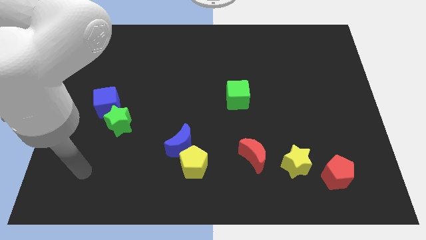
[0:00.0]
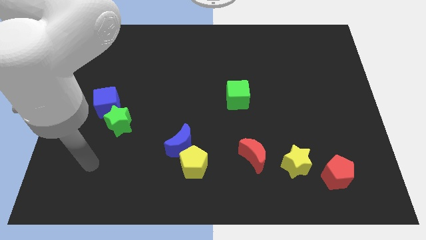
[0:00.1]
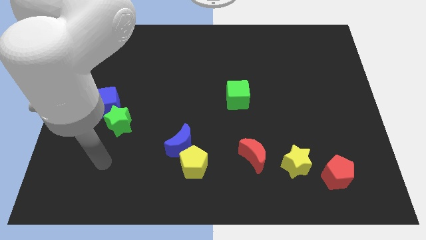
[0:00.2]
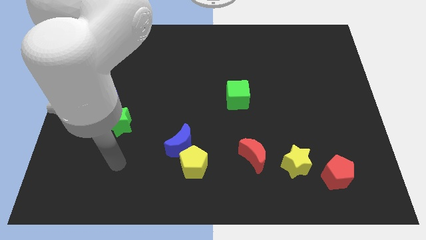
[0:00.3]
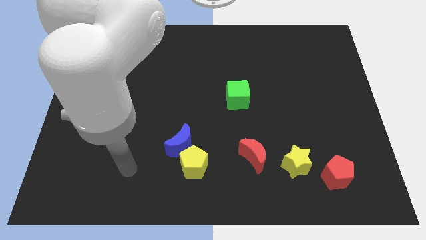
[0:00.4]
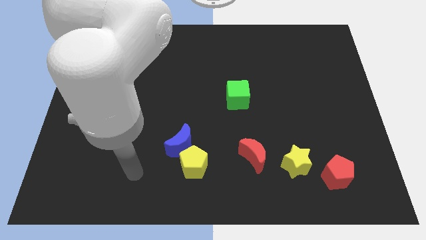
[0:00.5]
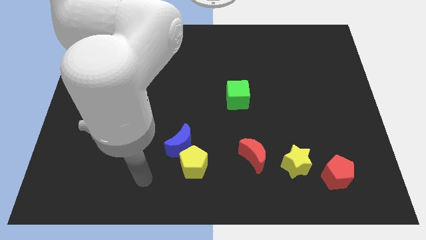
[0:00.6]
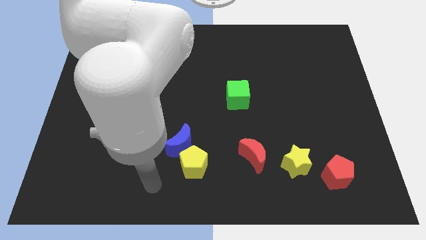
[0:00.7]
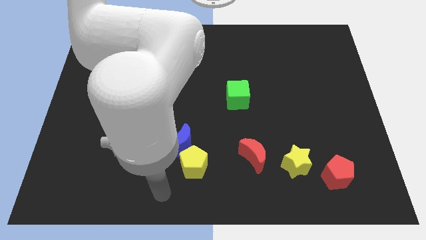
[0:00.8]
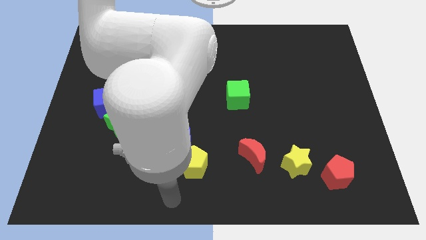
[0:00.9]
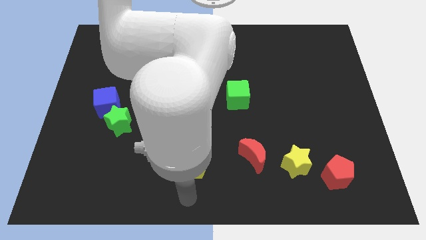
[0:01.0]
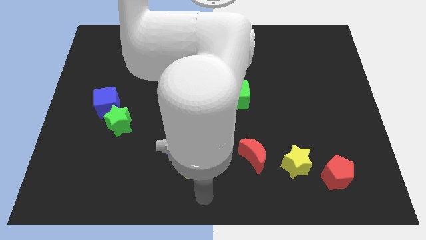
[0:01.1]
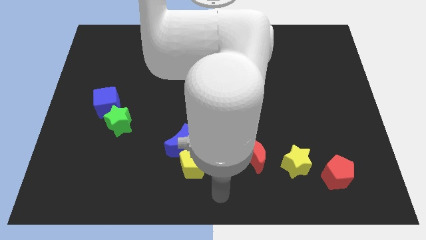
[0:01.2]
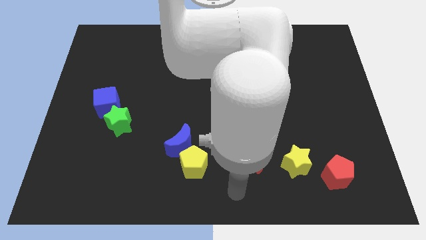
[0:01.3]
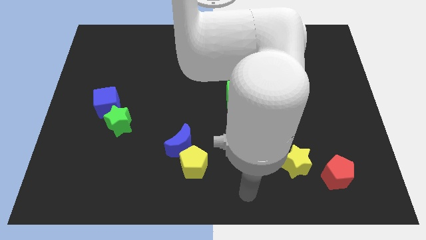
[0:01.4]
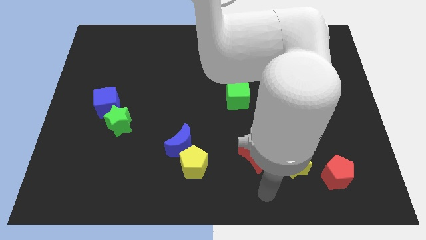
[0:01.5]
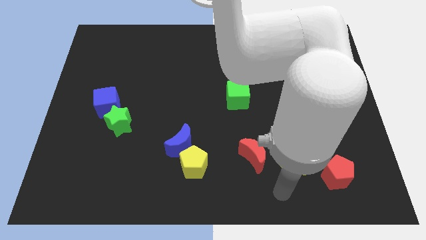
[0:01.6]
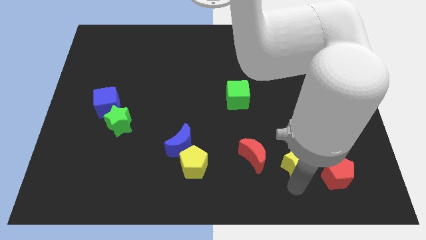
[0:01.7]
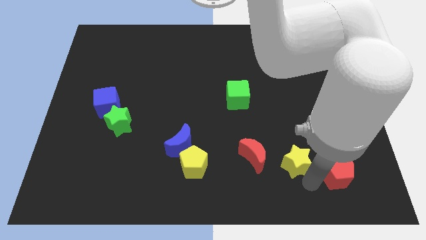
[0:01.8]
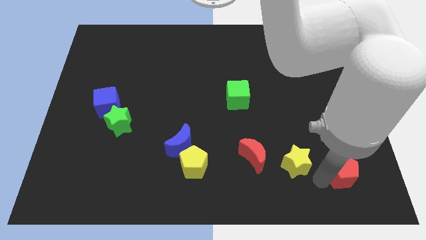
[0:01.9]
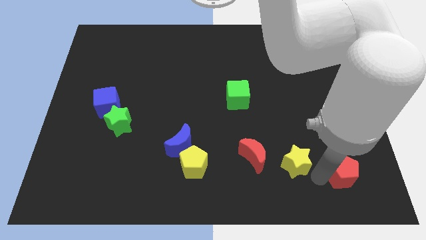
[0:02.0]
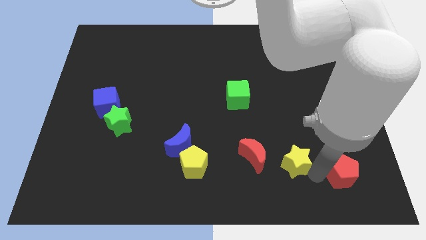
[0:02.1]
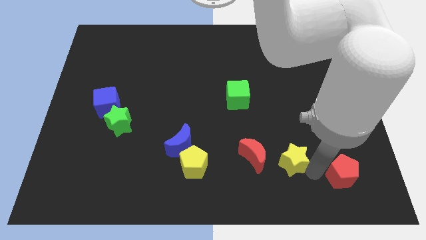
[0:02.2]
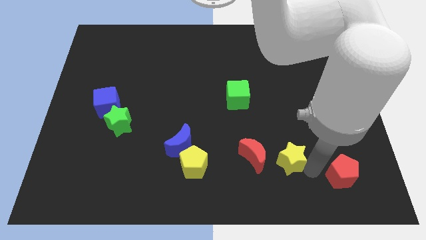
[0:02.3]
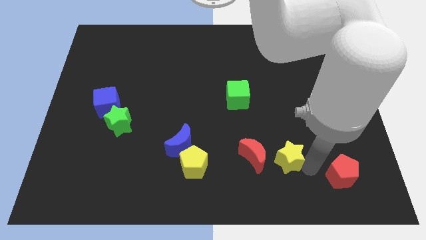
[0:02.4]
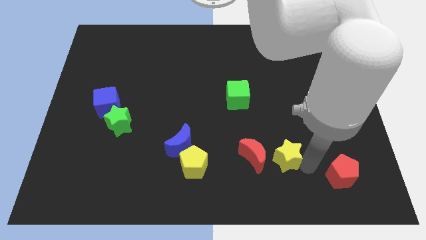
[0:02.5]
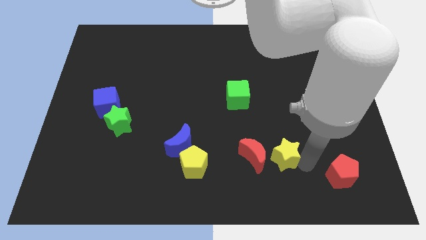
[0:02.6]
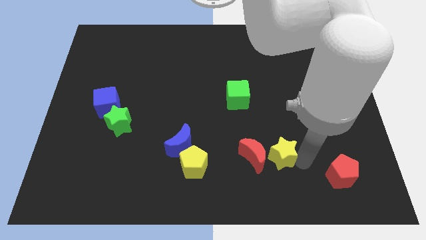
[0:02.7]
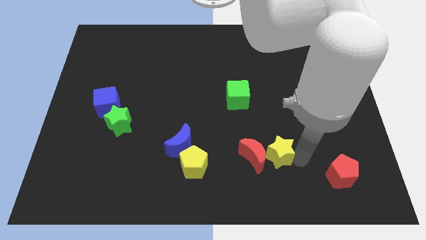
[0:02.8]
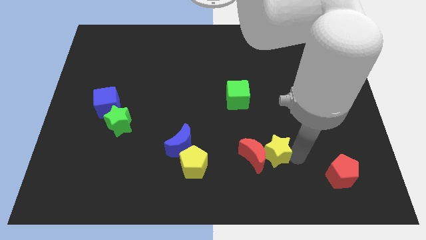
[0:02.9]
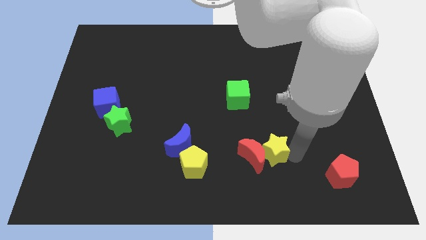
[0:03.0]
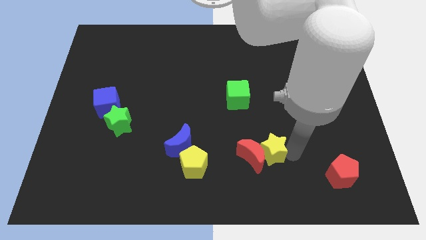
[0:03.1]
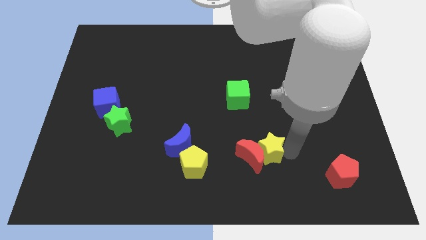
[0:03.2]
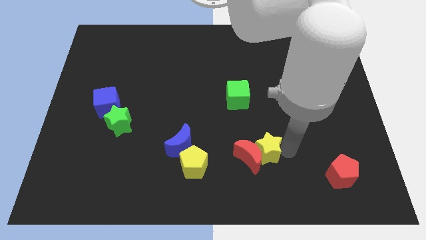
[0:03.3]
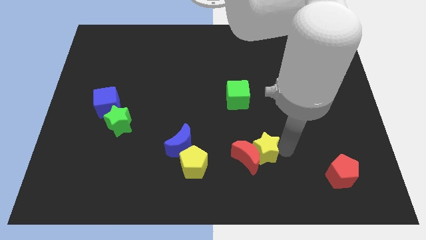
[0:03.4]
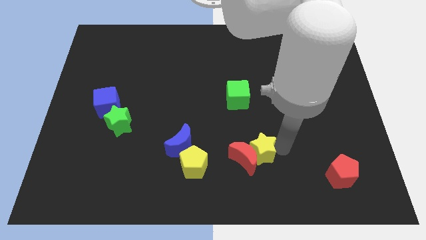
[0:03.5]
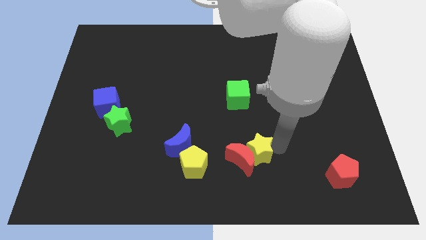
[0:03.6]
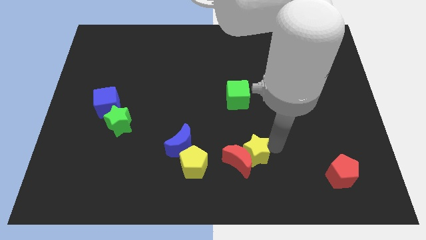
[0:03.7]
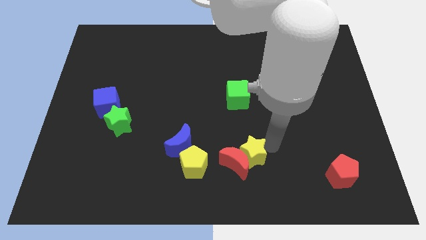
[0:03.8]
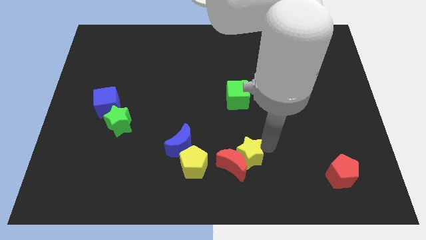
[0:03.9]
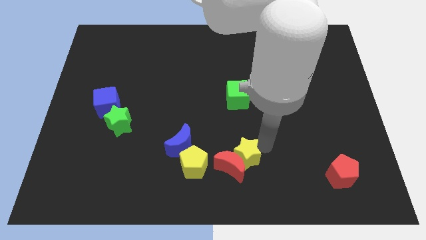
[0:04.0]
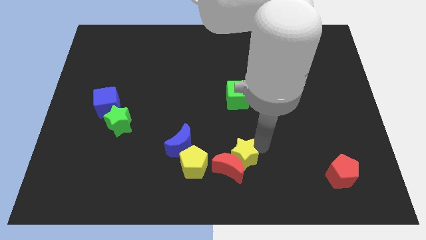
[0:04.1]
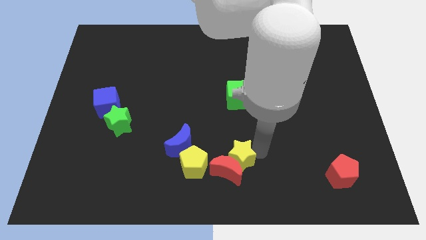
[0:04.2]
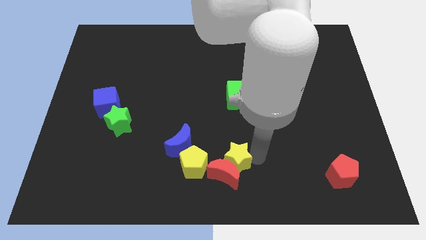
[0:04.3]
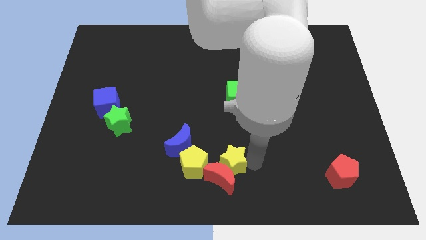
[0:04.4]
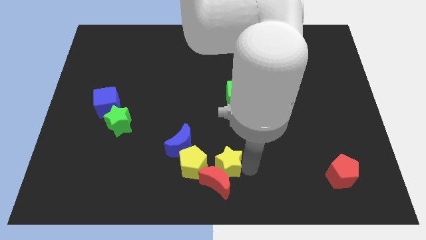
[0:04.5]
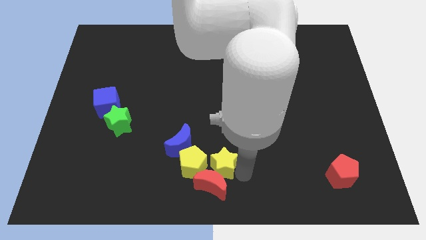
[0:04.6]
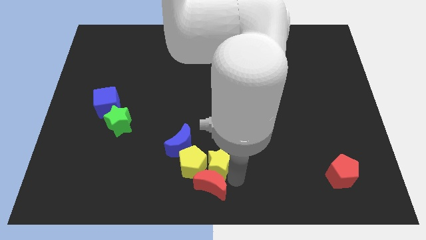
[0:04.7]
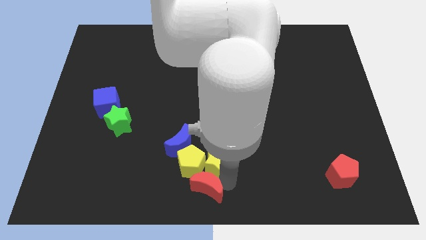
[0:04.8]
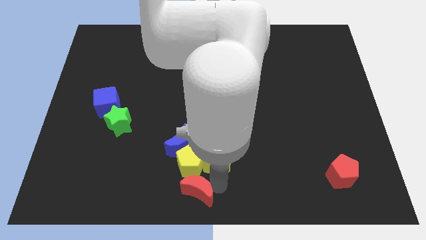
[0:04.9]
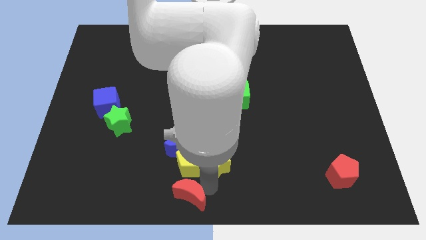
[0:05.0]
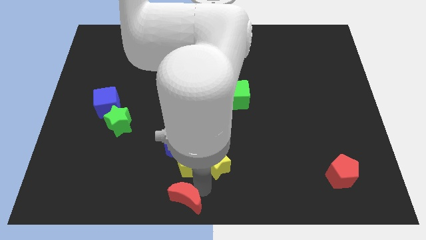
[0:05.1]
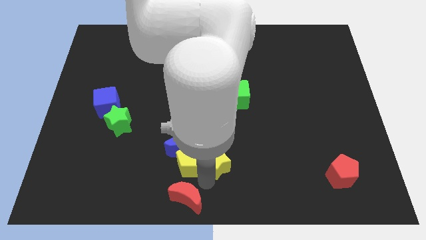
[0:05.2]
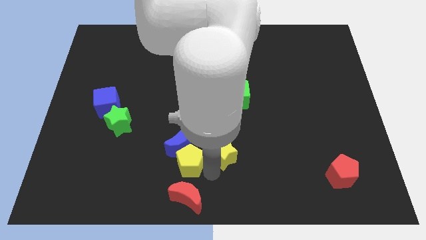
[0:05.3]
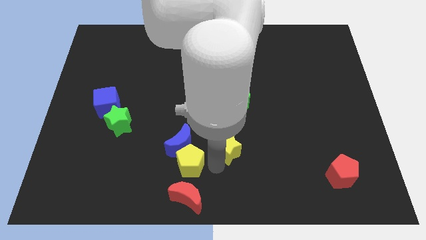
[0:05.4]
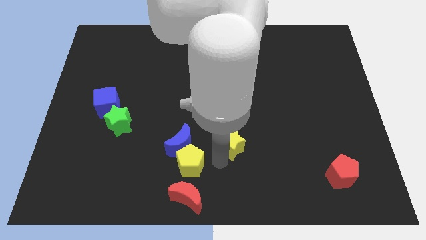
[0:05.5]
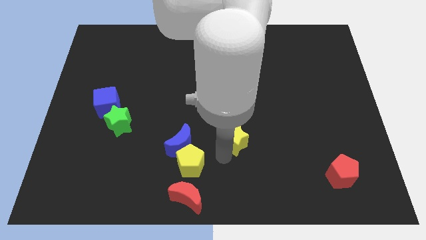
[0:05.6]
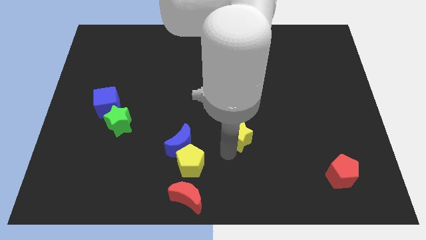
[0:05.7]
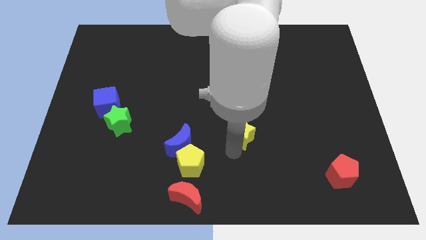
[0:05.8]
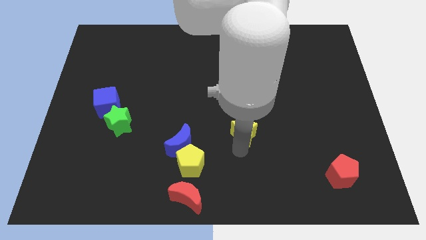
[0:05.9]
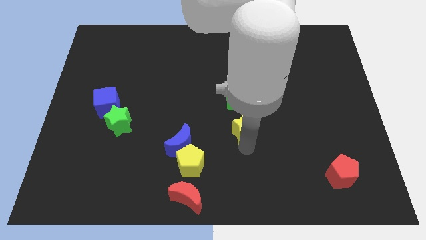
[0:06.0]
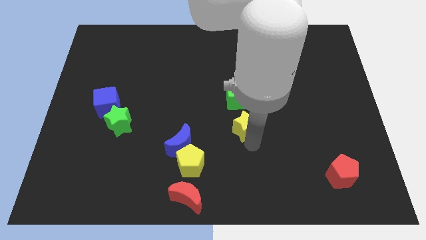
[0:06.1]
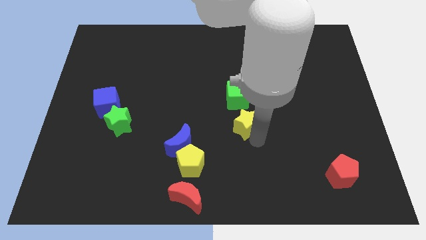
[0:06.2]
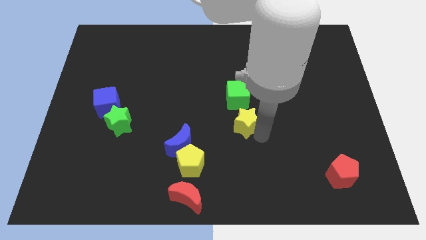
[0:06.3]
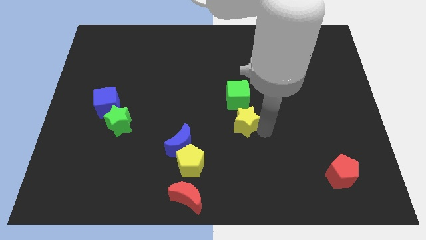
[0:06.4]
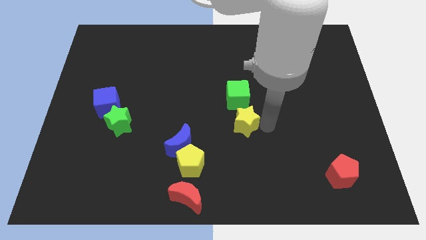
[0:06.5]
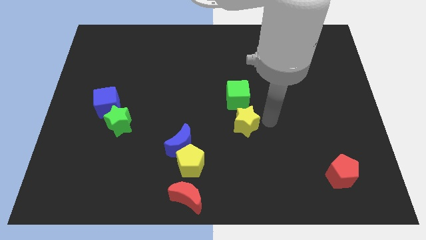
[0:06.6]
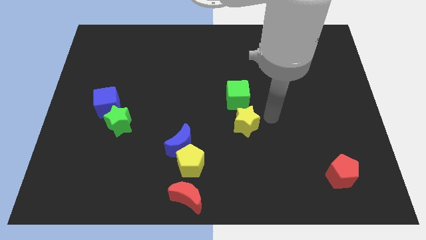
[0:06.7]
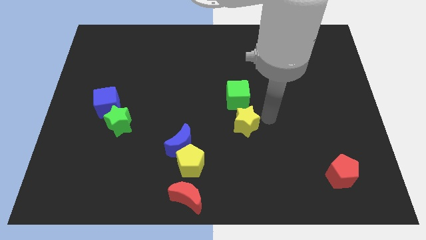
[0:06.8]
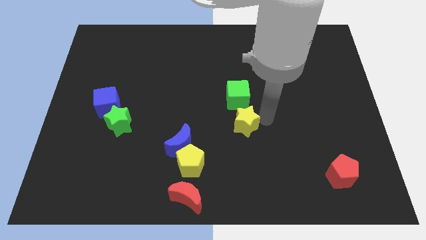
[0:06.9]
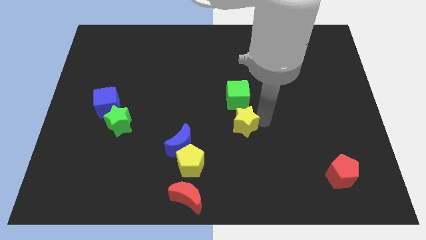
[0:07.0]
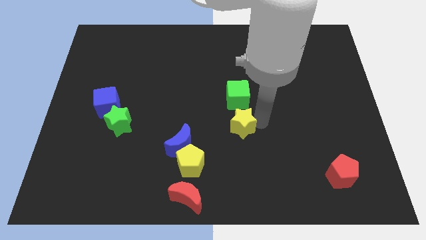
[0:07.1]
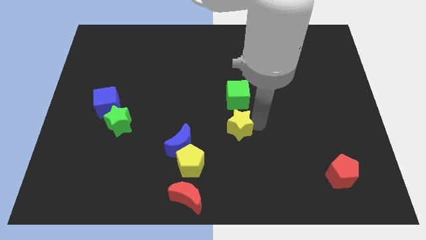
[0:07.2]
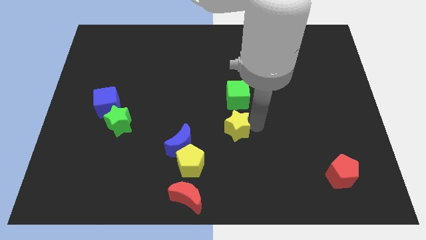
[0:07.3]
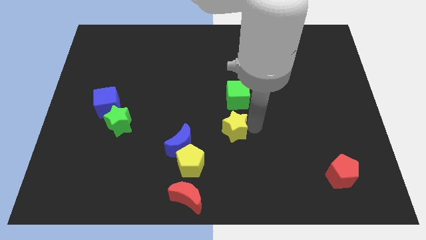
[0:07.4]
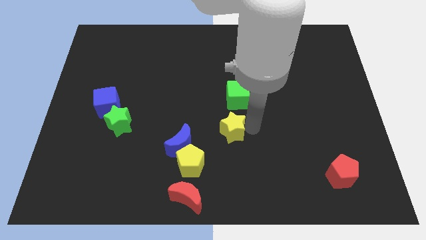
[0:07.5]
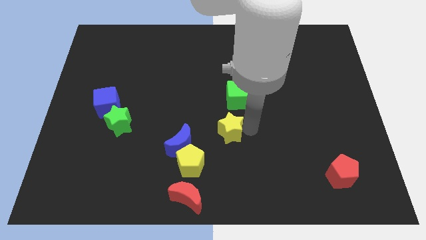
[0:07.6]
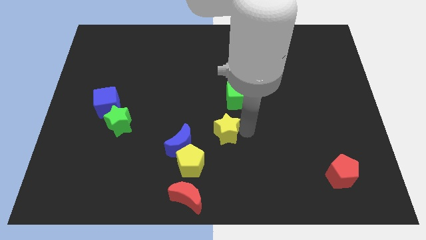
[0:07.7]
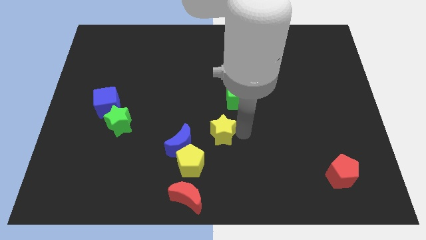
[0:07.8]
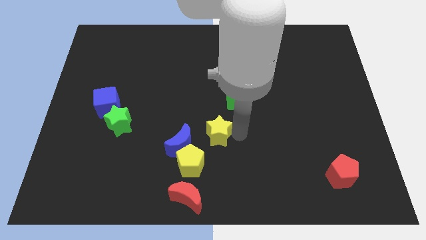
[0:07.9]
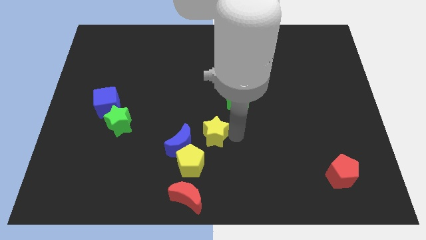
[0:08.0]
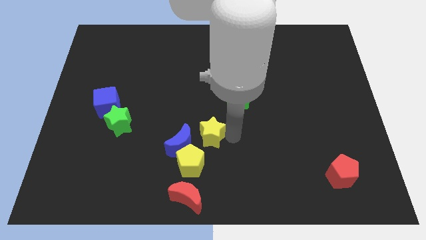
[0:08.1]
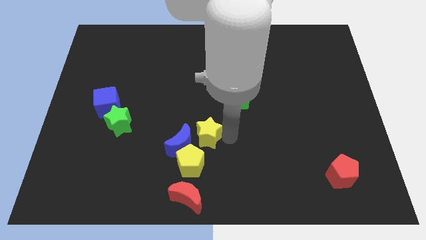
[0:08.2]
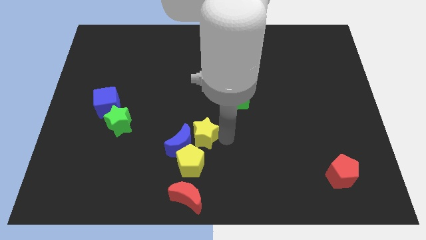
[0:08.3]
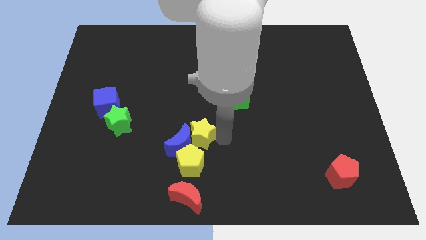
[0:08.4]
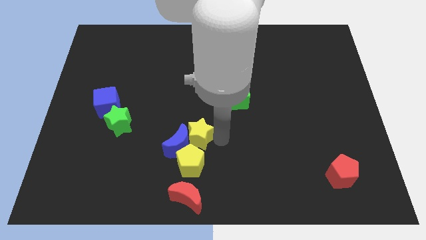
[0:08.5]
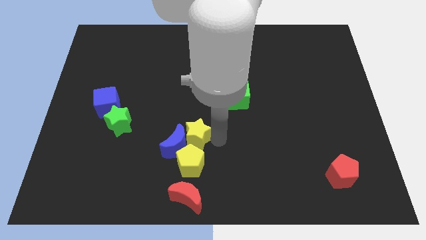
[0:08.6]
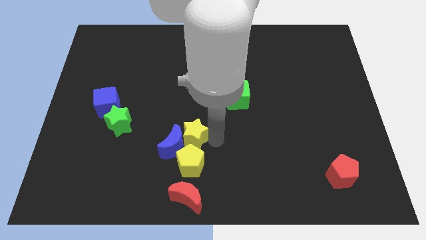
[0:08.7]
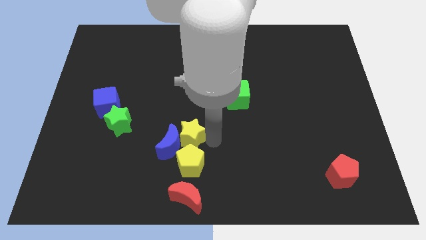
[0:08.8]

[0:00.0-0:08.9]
move the yellow star left
